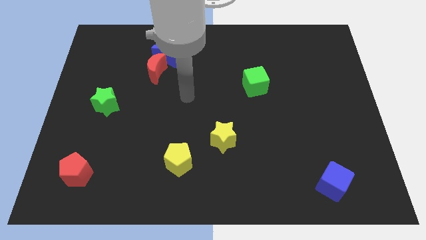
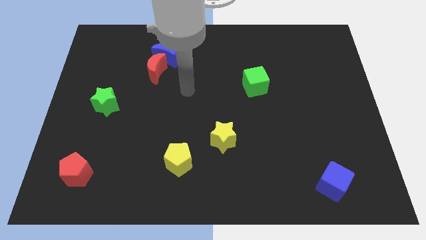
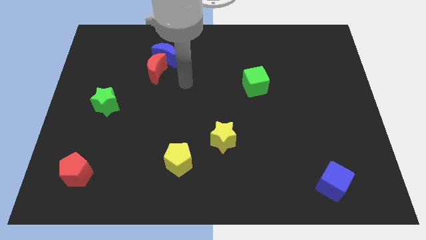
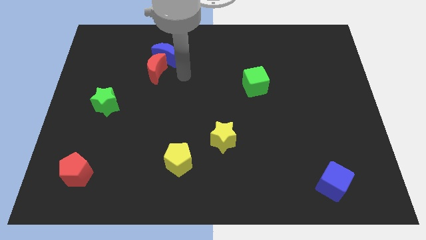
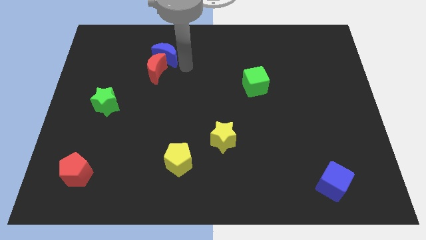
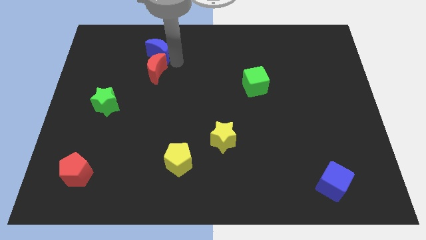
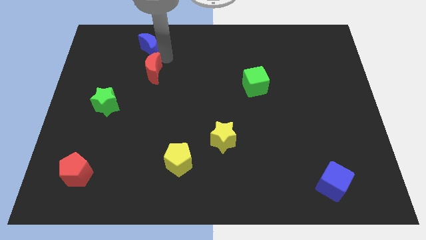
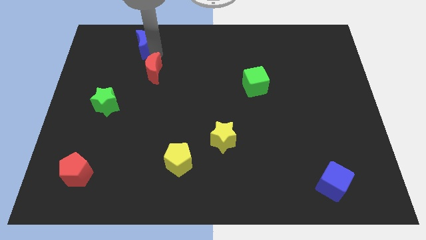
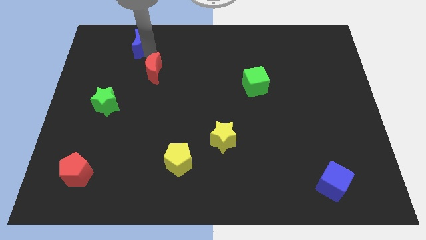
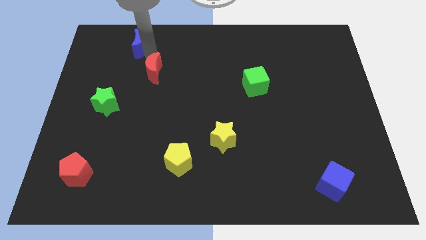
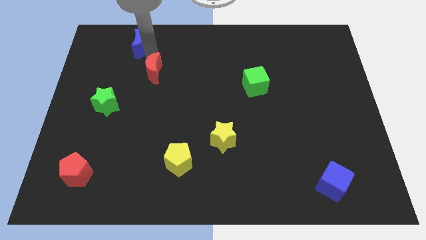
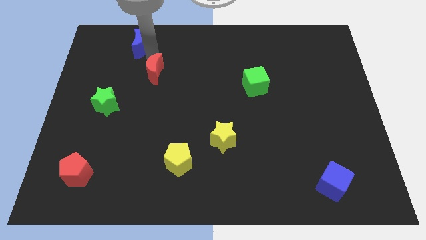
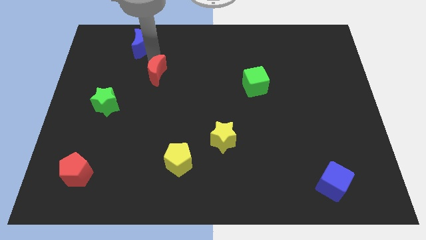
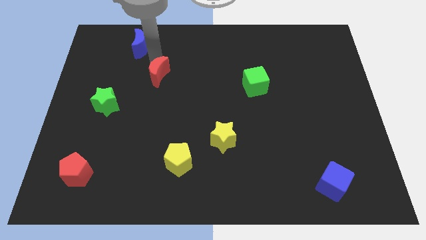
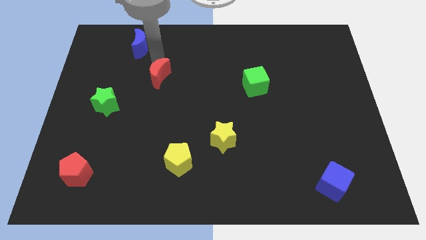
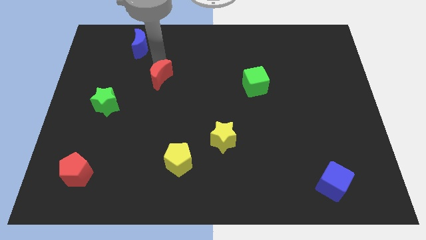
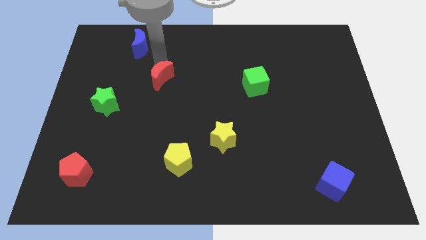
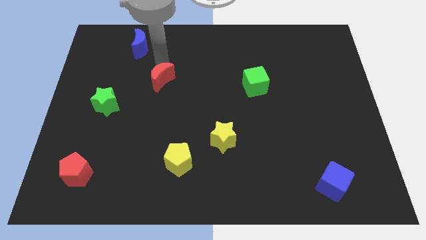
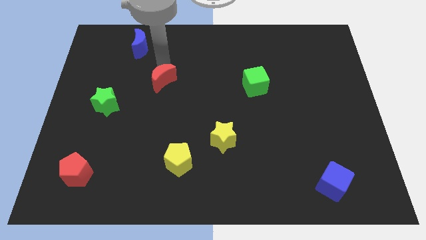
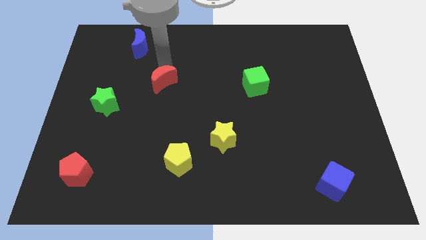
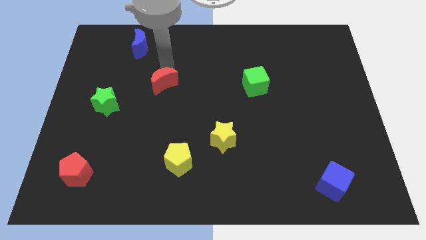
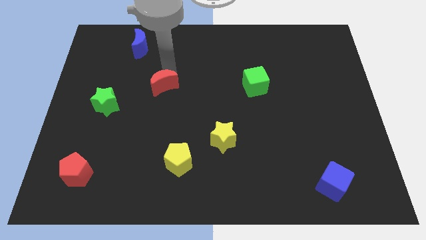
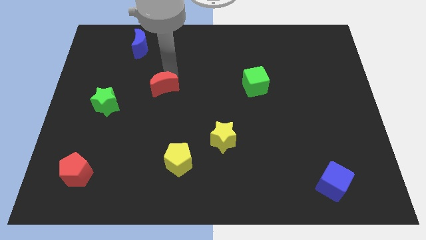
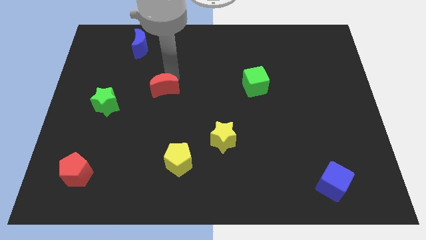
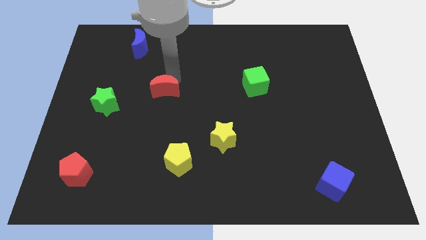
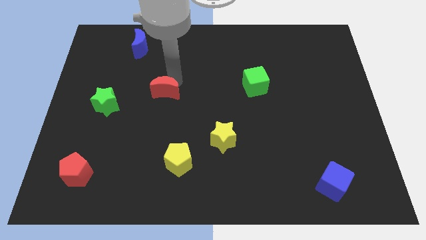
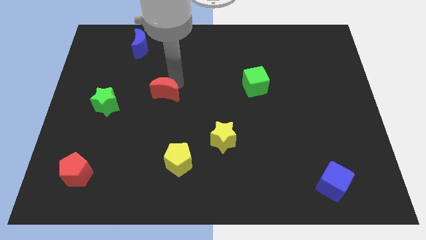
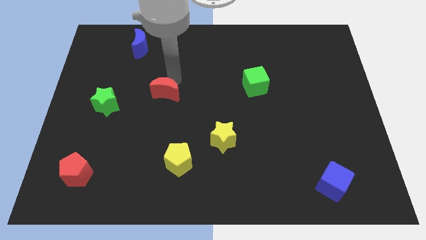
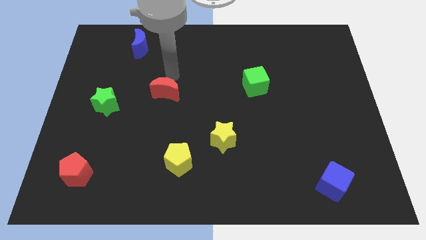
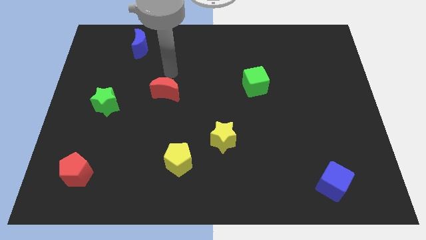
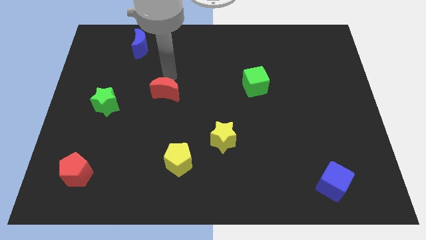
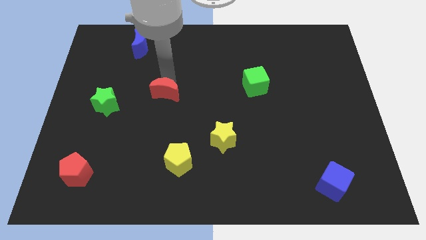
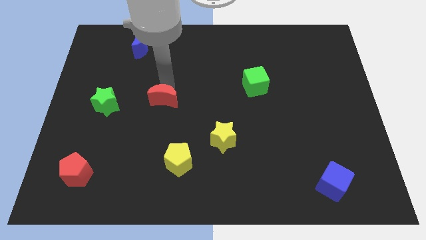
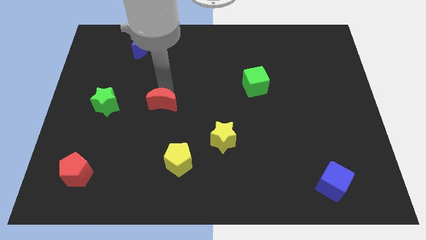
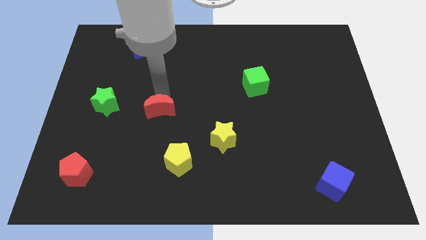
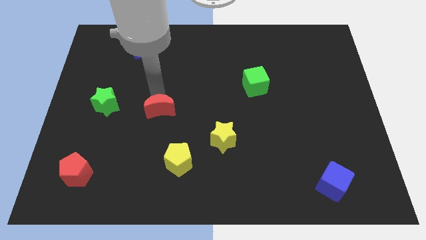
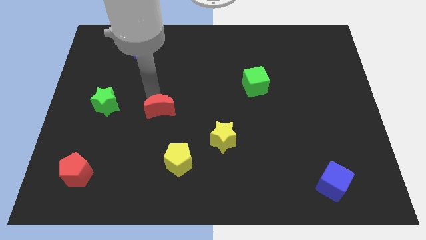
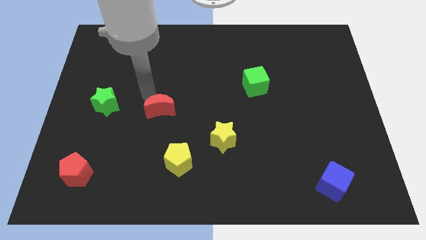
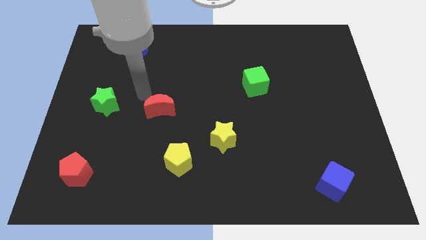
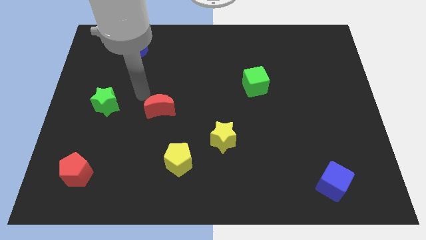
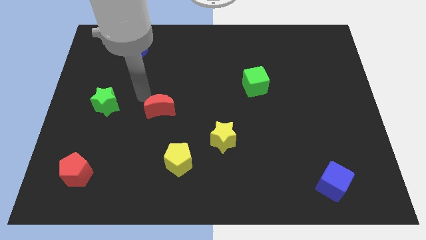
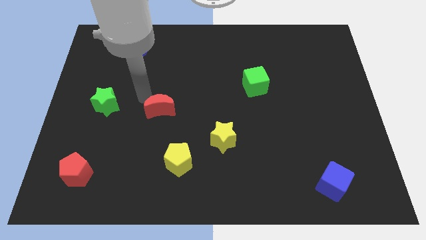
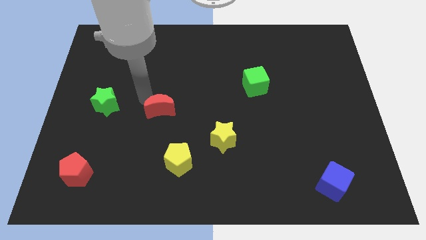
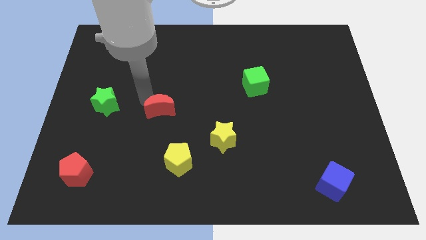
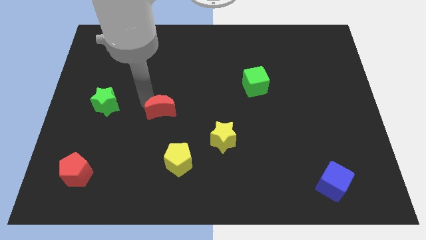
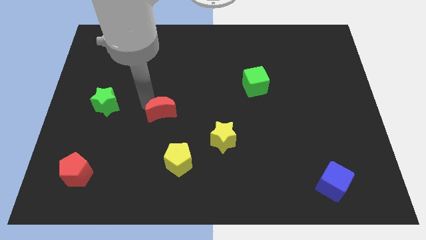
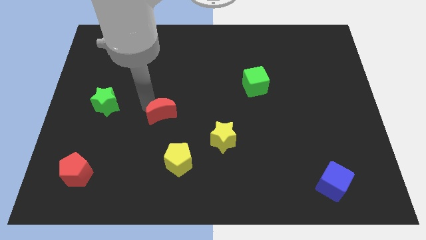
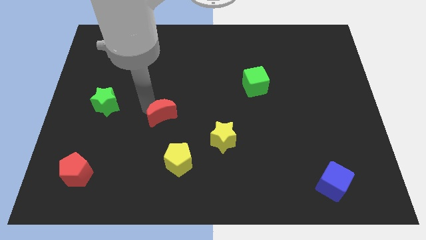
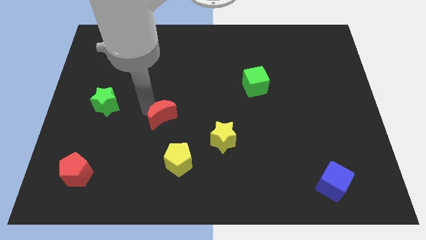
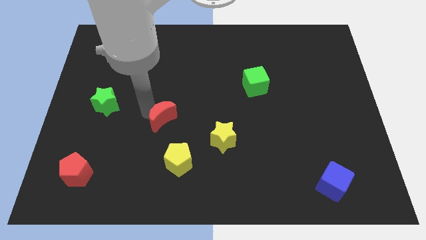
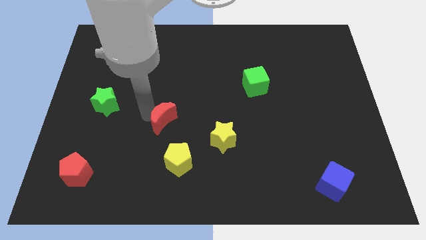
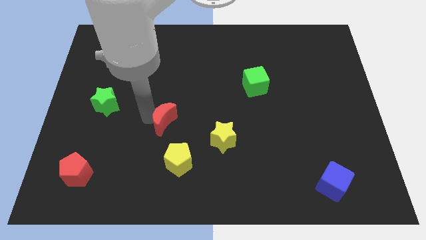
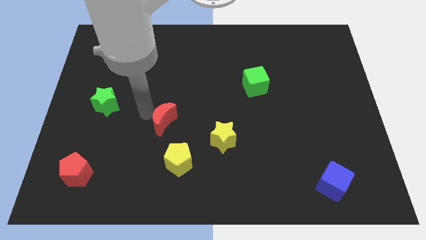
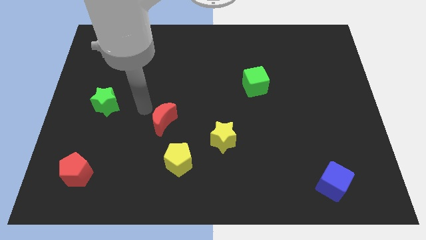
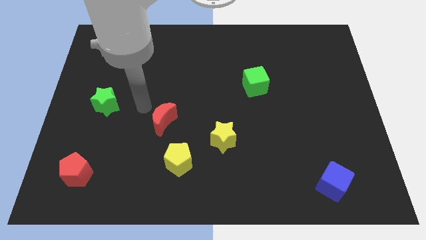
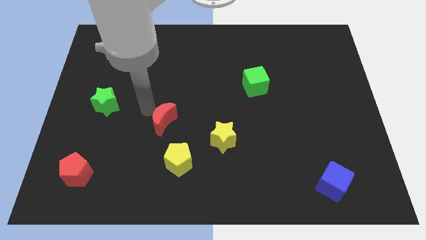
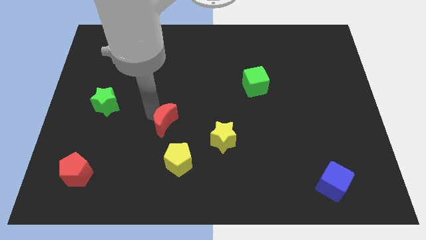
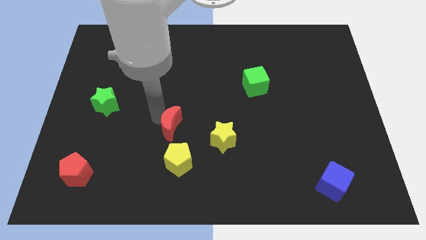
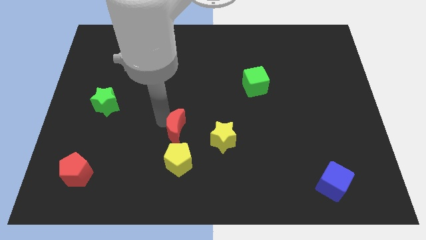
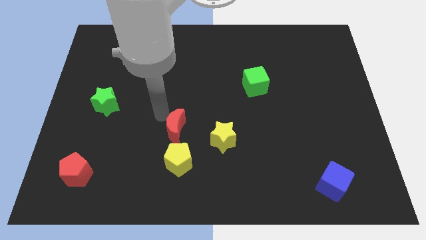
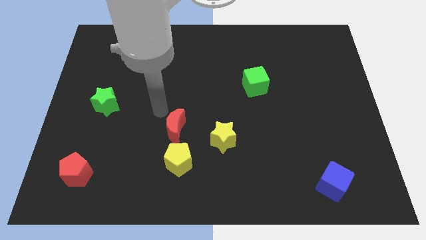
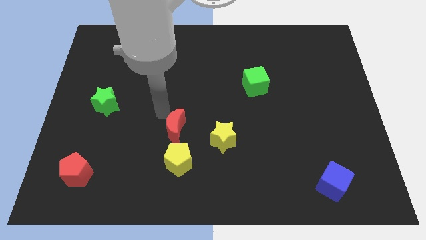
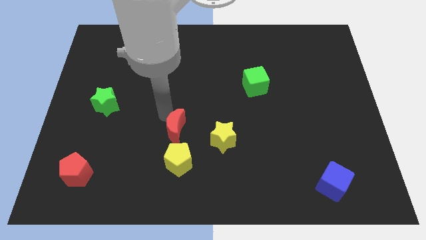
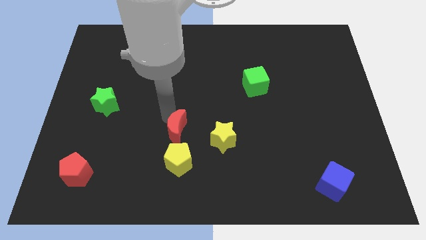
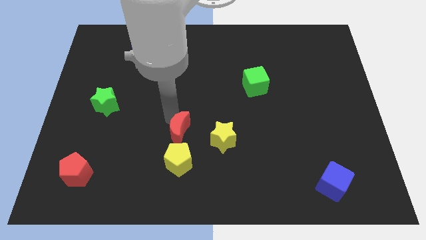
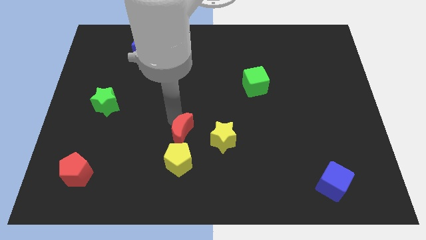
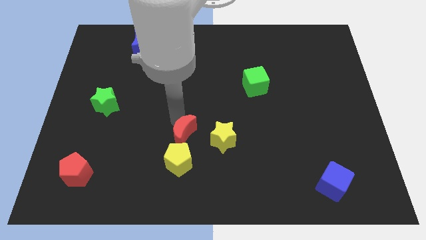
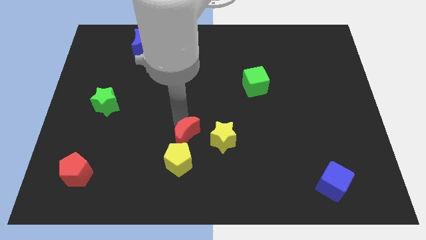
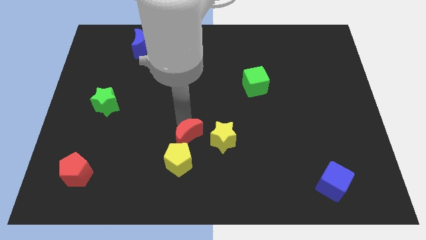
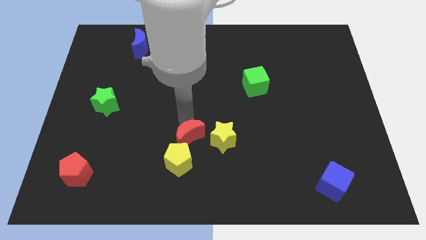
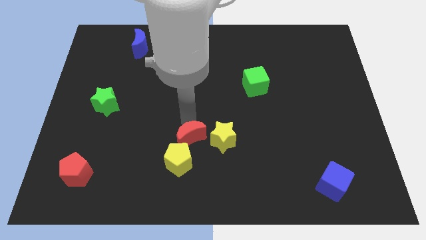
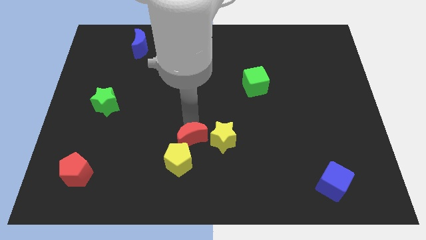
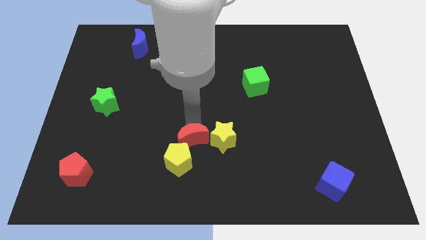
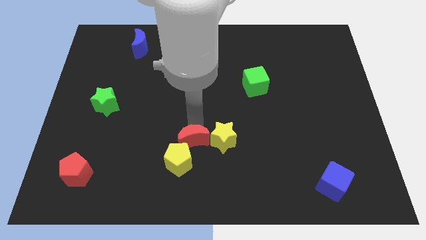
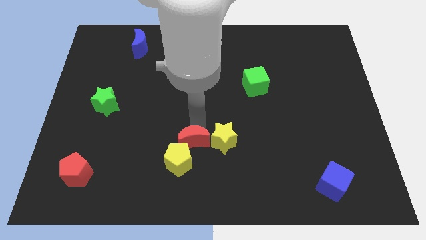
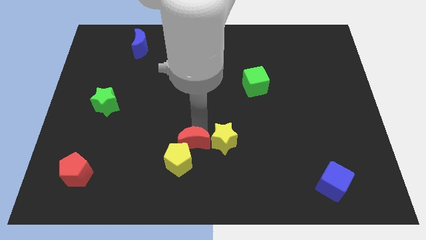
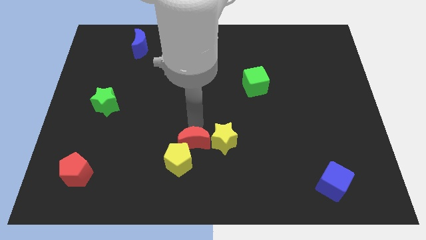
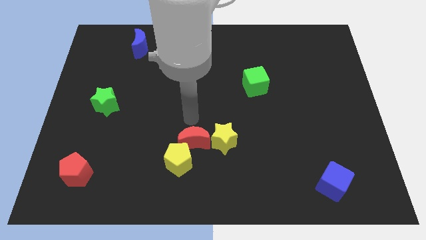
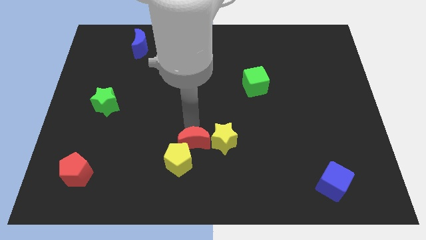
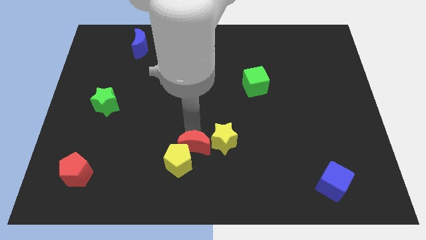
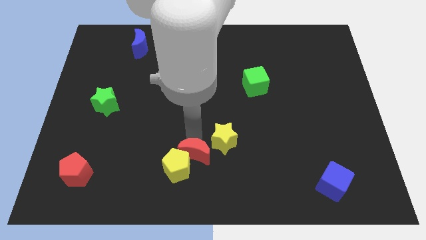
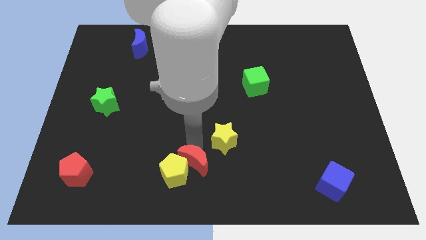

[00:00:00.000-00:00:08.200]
push the red moon to the bottom side
